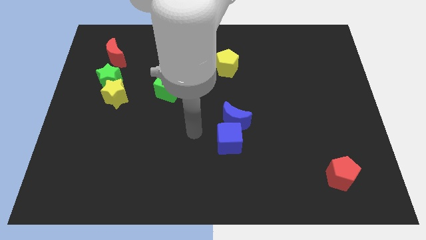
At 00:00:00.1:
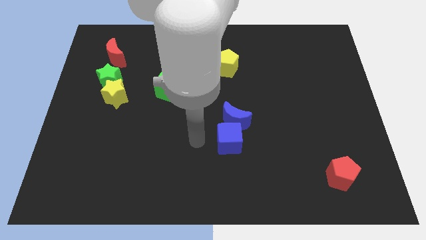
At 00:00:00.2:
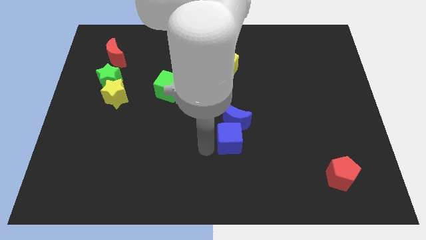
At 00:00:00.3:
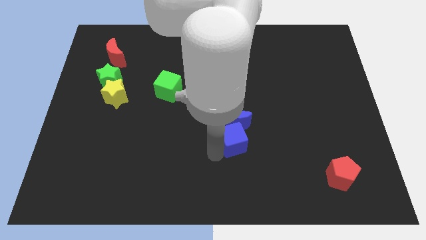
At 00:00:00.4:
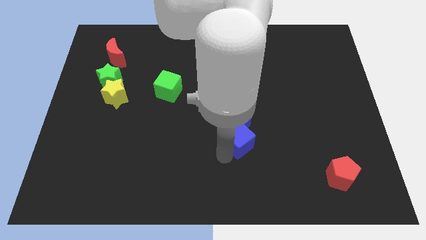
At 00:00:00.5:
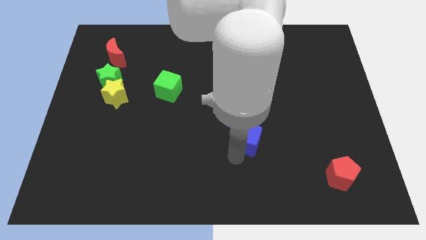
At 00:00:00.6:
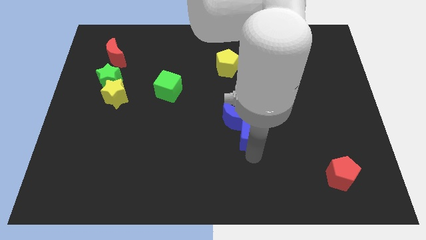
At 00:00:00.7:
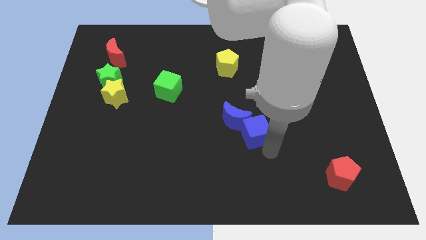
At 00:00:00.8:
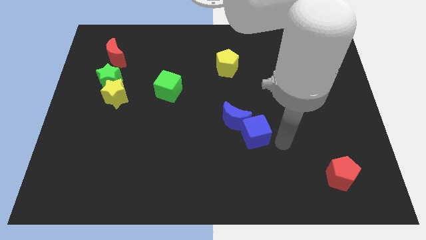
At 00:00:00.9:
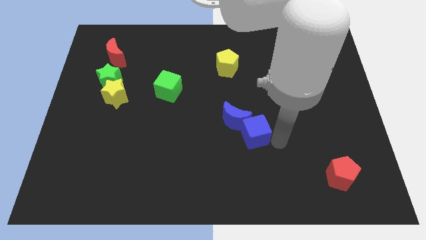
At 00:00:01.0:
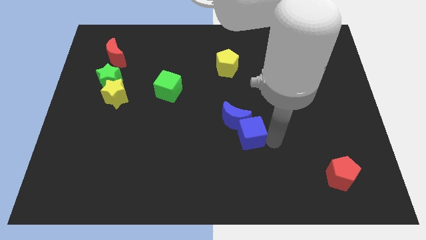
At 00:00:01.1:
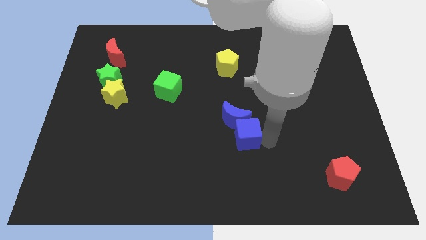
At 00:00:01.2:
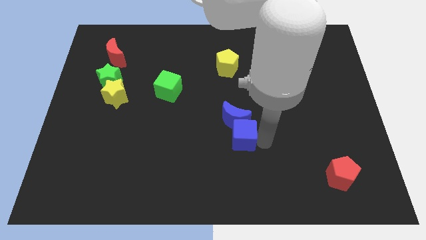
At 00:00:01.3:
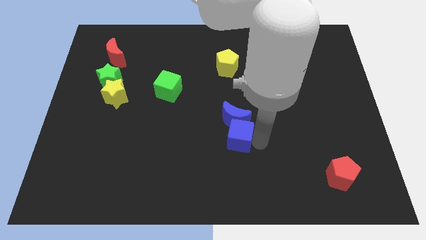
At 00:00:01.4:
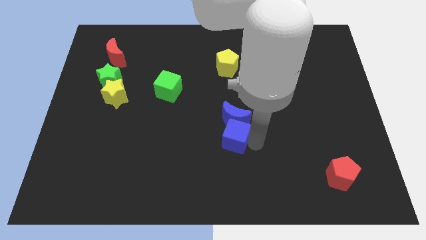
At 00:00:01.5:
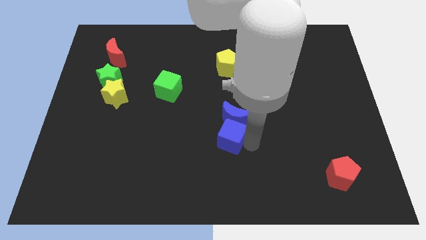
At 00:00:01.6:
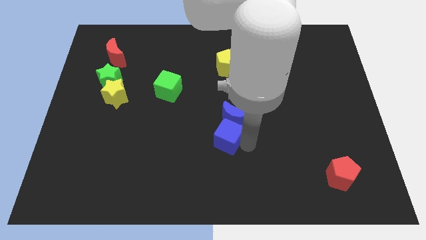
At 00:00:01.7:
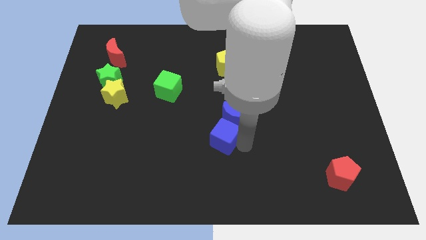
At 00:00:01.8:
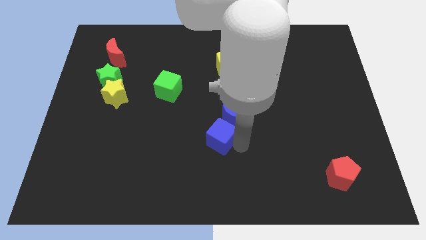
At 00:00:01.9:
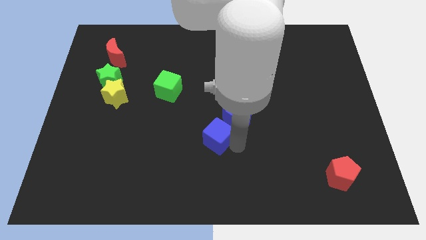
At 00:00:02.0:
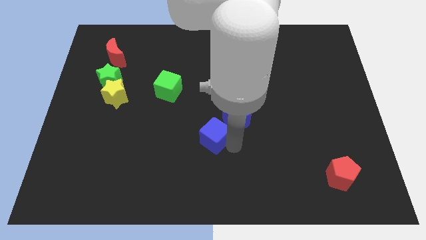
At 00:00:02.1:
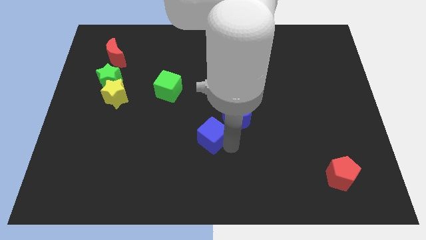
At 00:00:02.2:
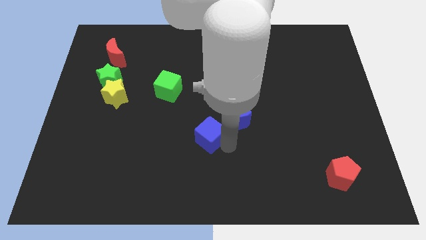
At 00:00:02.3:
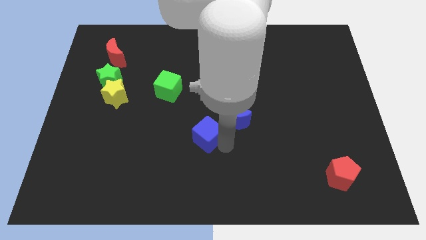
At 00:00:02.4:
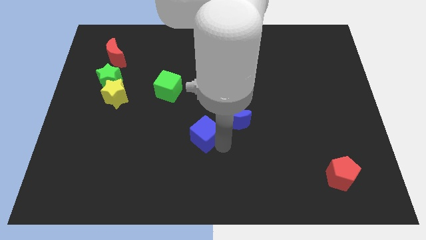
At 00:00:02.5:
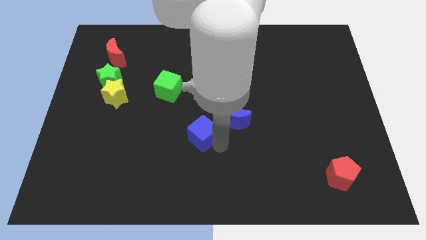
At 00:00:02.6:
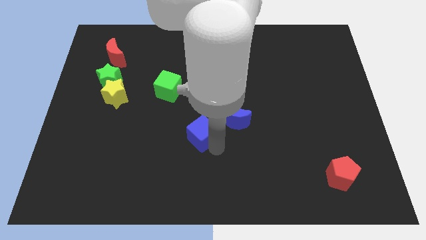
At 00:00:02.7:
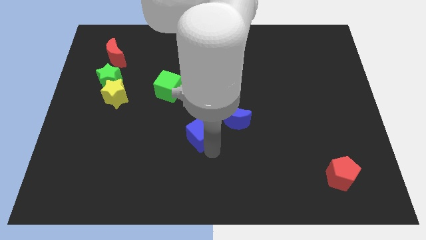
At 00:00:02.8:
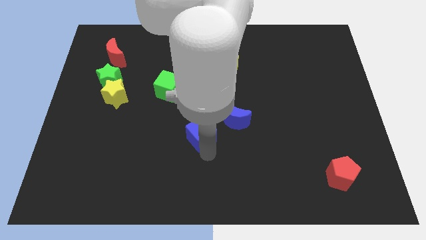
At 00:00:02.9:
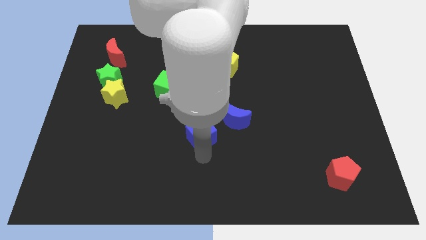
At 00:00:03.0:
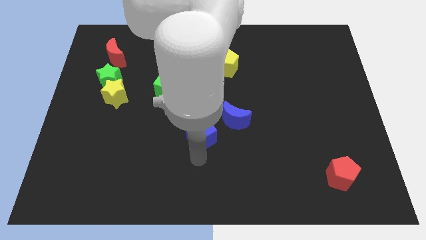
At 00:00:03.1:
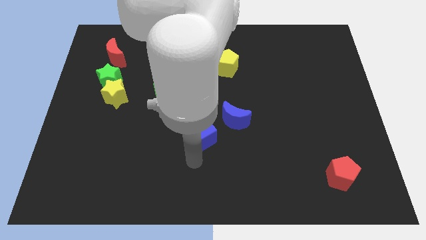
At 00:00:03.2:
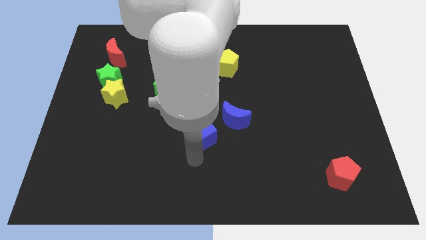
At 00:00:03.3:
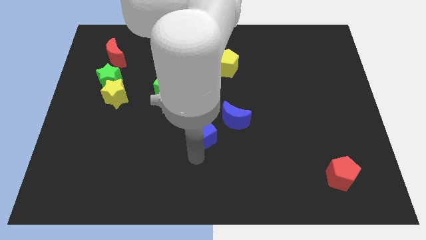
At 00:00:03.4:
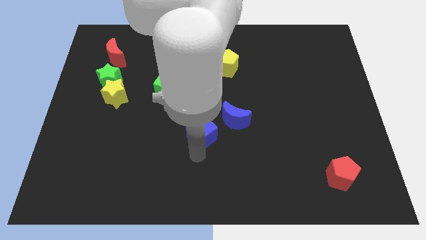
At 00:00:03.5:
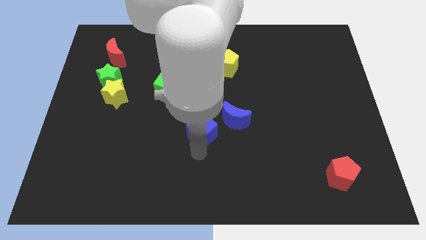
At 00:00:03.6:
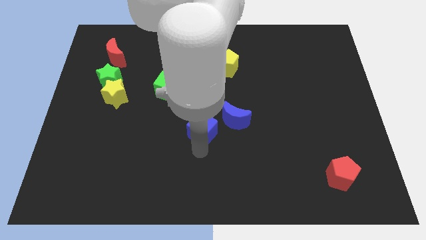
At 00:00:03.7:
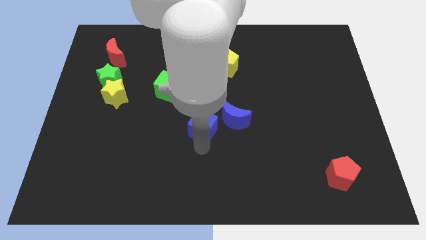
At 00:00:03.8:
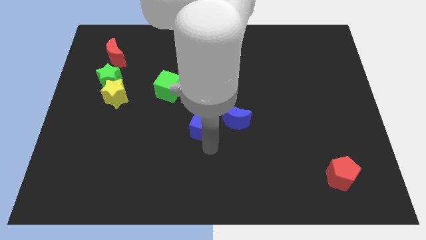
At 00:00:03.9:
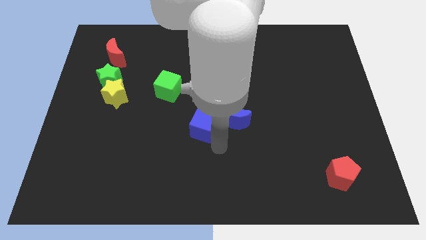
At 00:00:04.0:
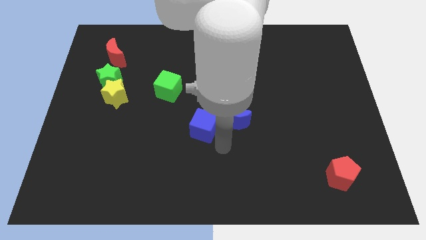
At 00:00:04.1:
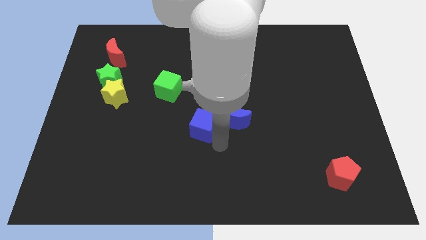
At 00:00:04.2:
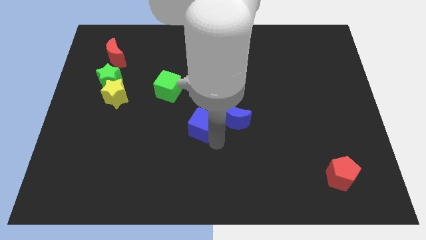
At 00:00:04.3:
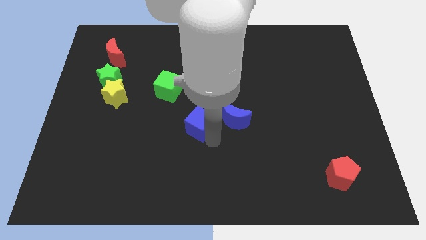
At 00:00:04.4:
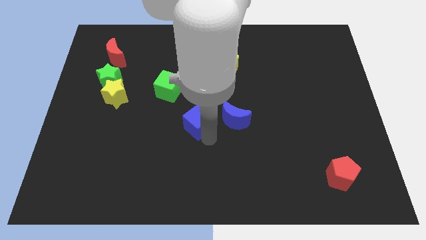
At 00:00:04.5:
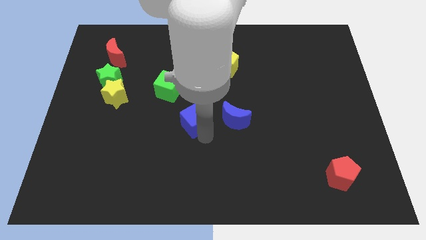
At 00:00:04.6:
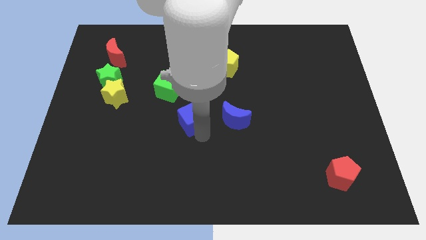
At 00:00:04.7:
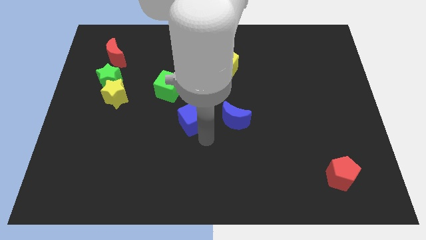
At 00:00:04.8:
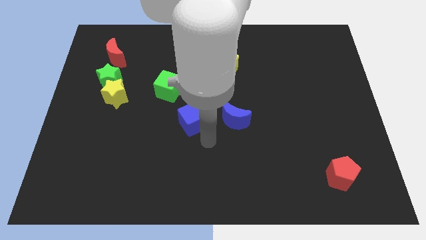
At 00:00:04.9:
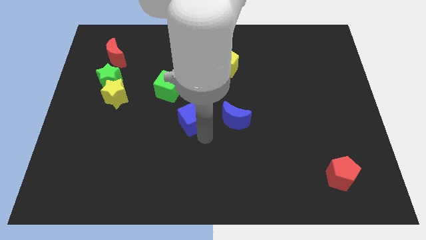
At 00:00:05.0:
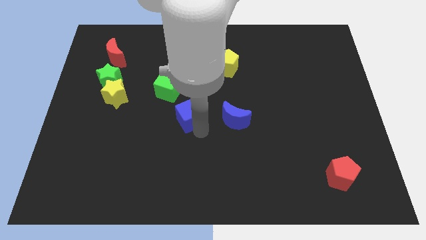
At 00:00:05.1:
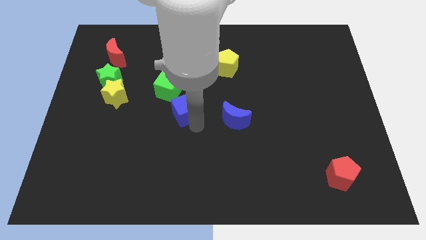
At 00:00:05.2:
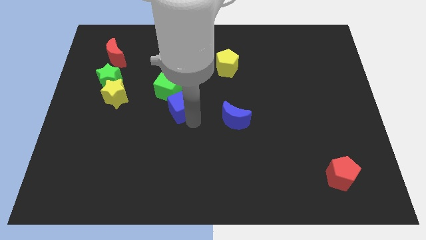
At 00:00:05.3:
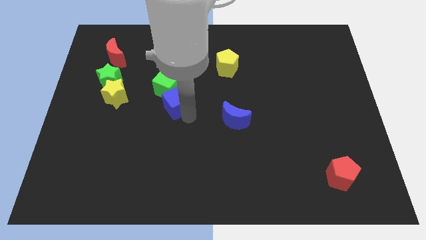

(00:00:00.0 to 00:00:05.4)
slide the blue cube close to the green cube

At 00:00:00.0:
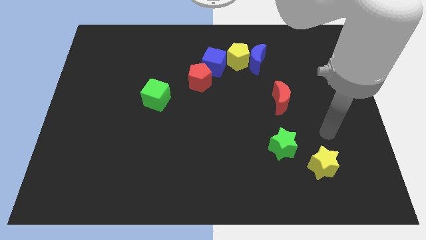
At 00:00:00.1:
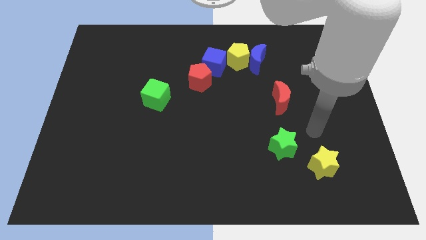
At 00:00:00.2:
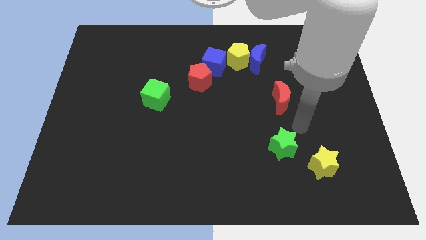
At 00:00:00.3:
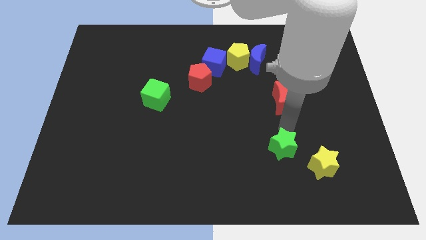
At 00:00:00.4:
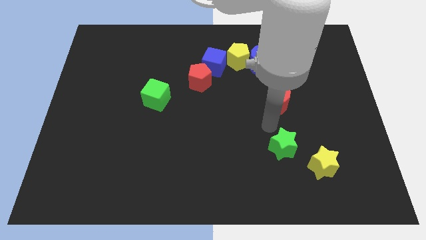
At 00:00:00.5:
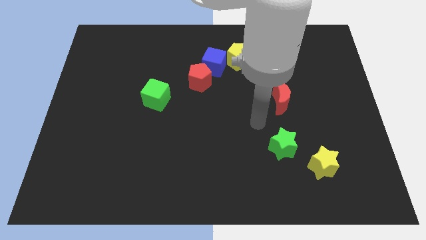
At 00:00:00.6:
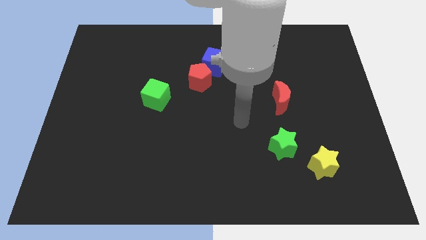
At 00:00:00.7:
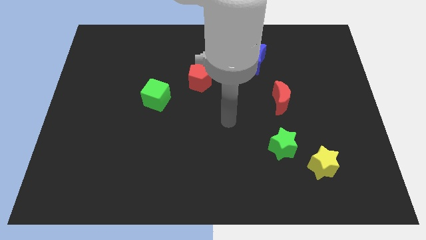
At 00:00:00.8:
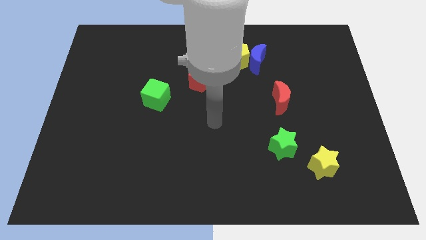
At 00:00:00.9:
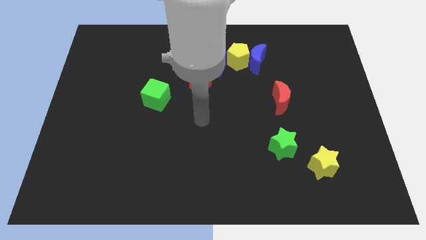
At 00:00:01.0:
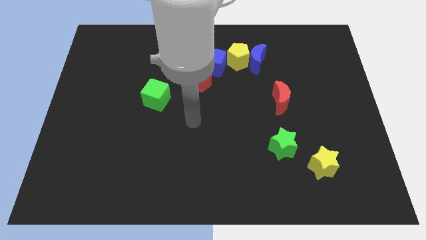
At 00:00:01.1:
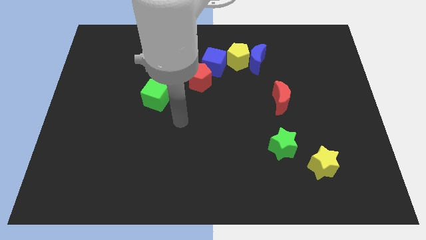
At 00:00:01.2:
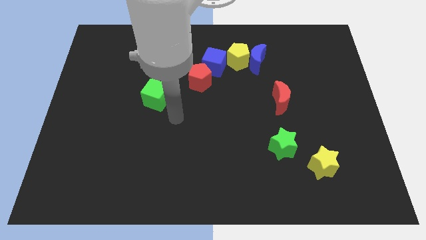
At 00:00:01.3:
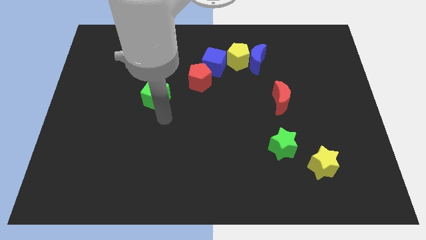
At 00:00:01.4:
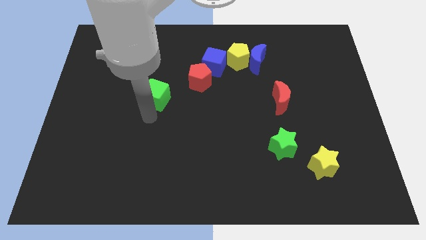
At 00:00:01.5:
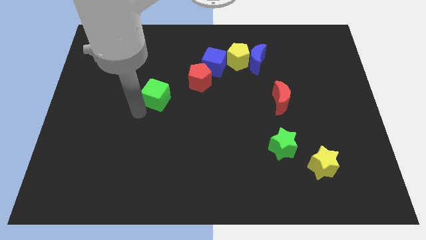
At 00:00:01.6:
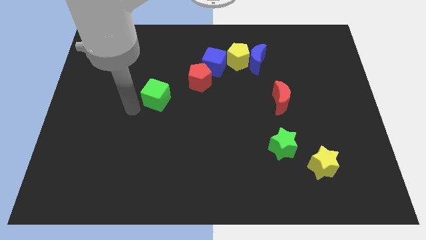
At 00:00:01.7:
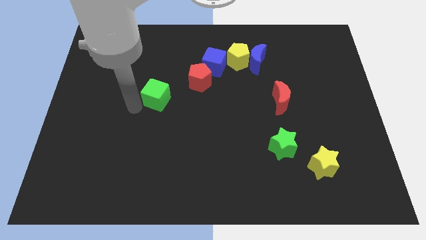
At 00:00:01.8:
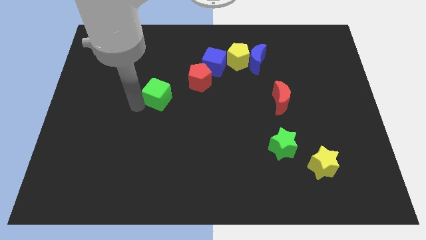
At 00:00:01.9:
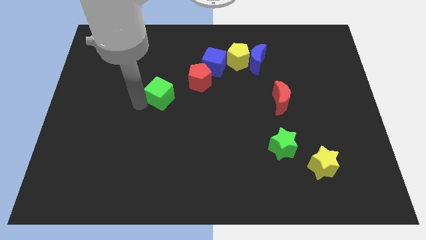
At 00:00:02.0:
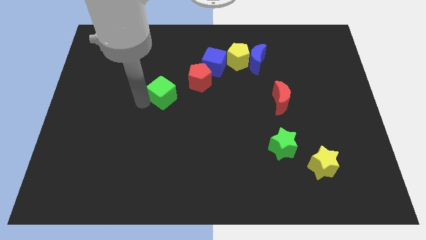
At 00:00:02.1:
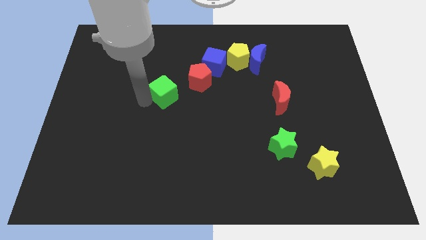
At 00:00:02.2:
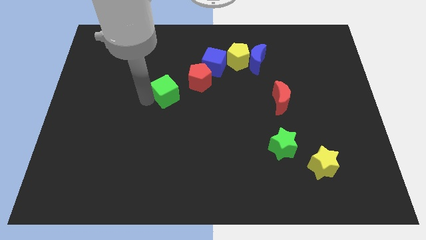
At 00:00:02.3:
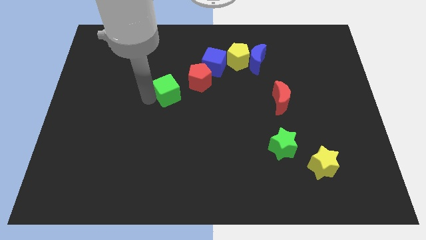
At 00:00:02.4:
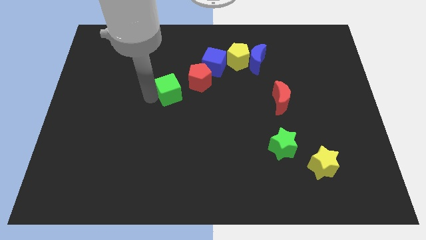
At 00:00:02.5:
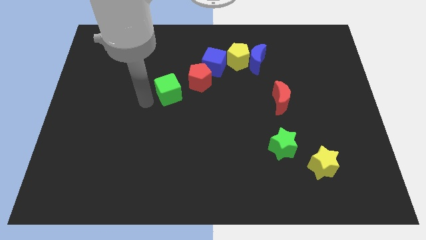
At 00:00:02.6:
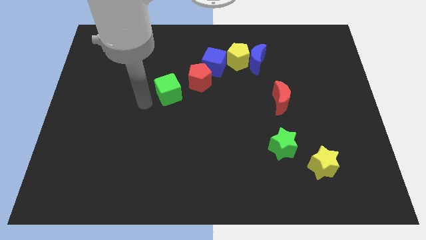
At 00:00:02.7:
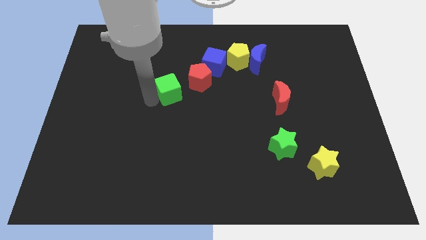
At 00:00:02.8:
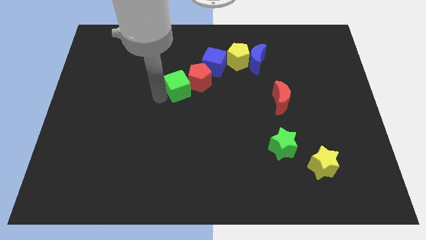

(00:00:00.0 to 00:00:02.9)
move the green cube to the red pentagon
